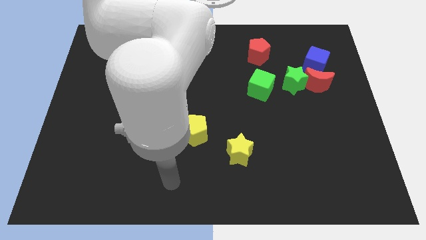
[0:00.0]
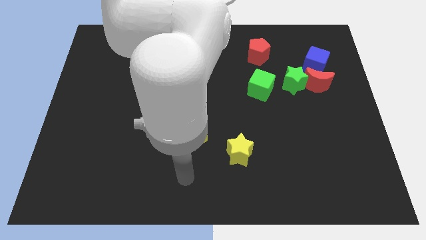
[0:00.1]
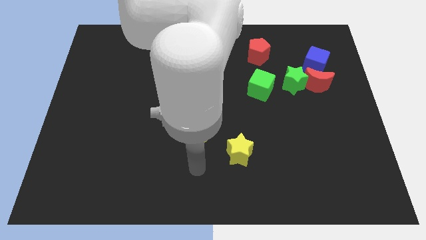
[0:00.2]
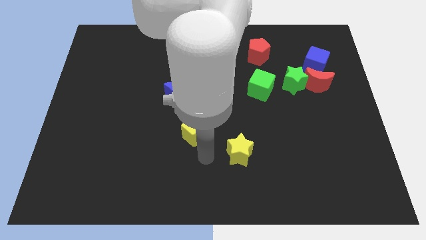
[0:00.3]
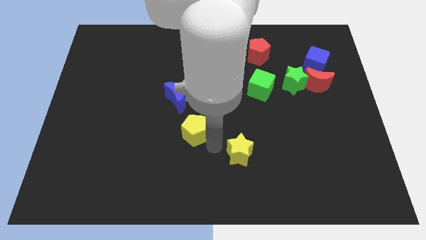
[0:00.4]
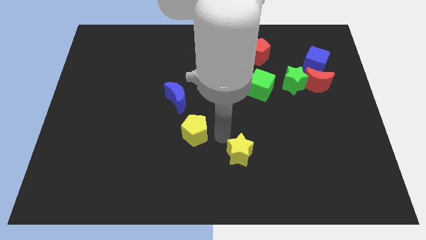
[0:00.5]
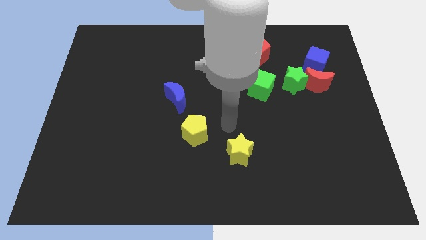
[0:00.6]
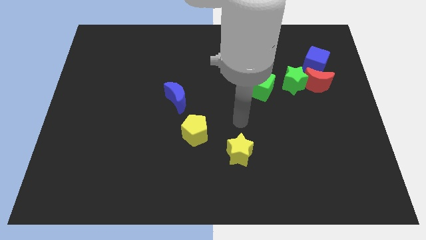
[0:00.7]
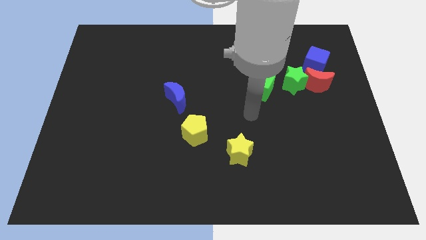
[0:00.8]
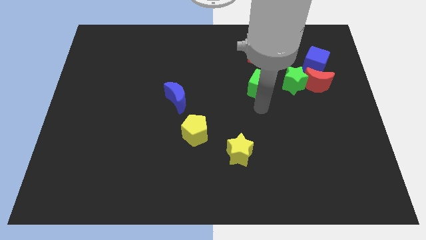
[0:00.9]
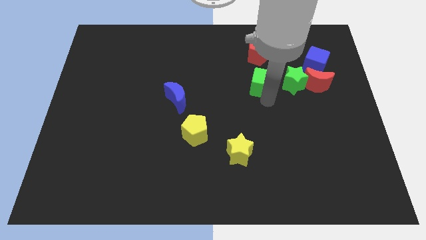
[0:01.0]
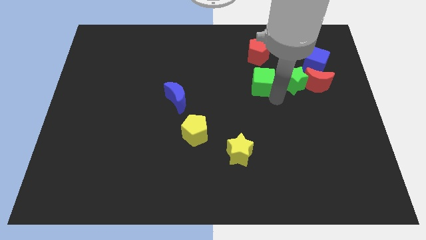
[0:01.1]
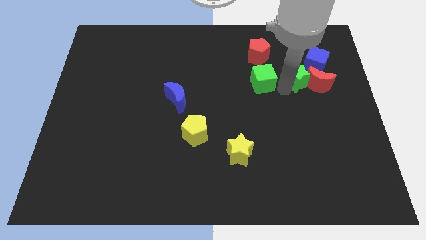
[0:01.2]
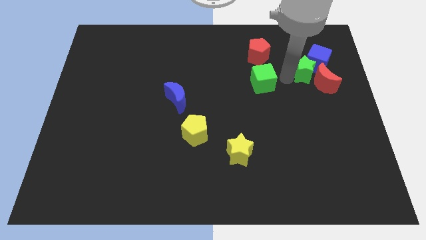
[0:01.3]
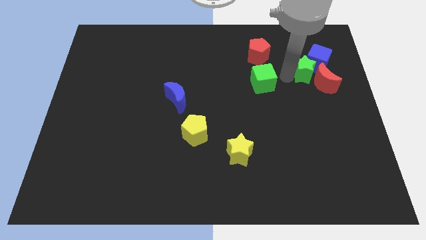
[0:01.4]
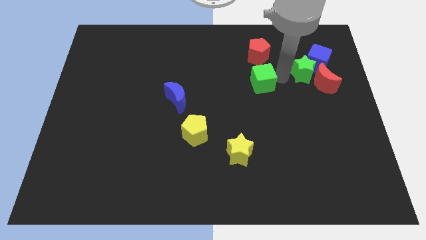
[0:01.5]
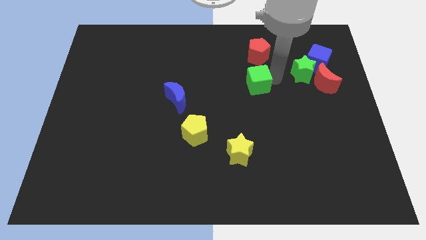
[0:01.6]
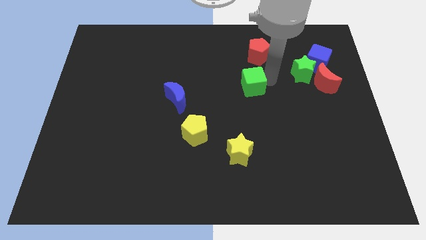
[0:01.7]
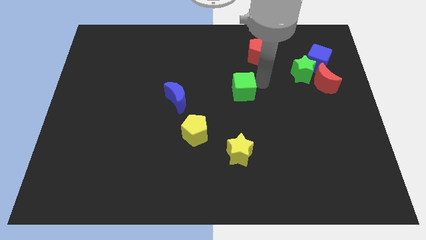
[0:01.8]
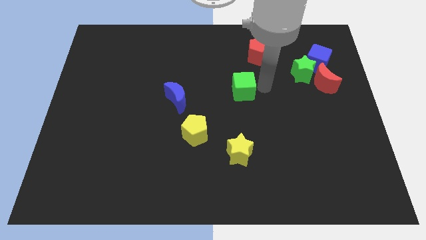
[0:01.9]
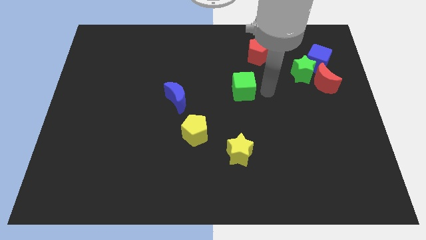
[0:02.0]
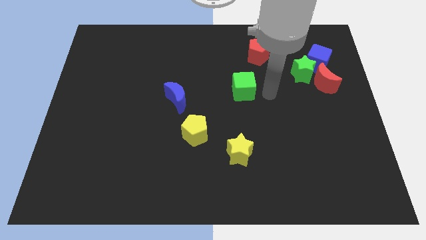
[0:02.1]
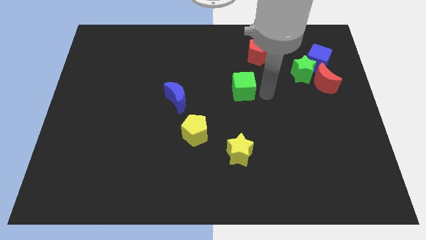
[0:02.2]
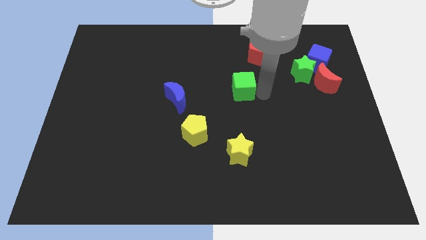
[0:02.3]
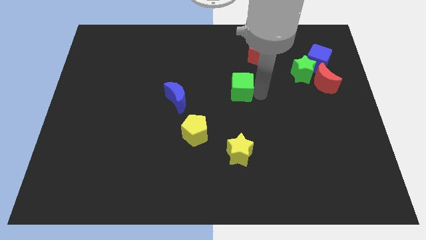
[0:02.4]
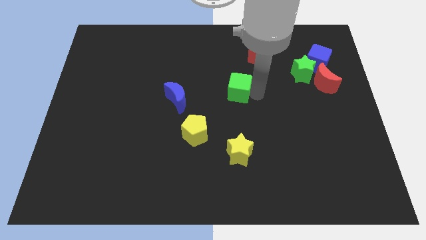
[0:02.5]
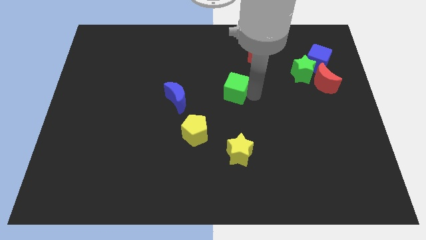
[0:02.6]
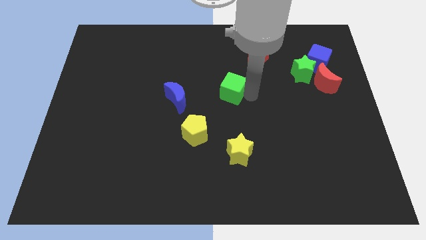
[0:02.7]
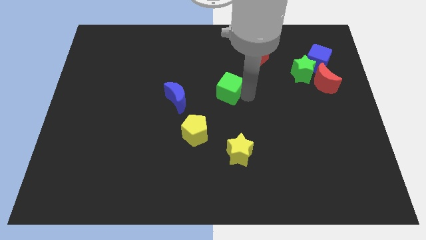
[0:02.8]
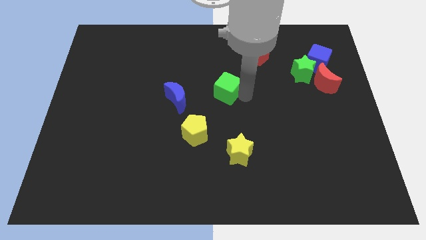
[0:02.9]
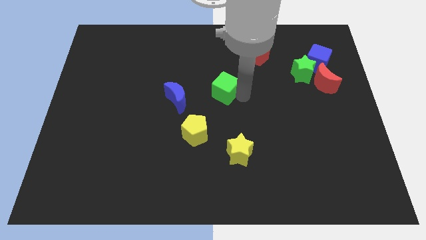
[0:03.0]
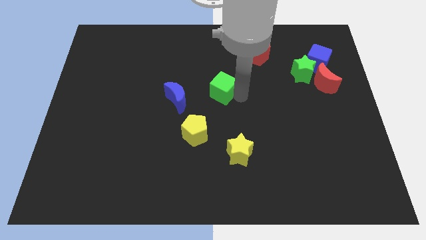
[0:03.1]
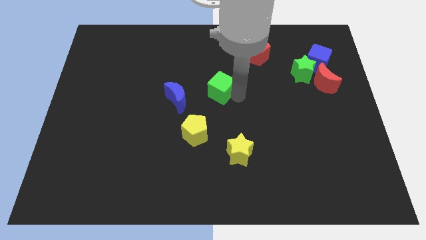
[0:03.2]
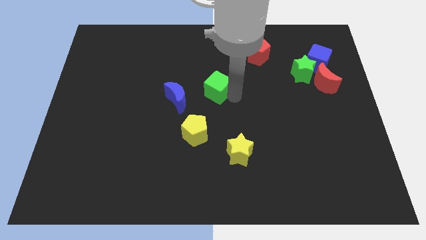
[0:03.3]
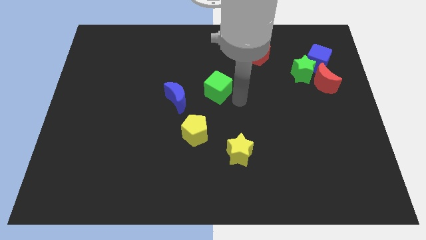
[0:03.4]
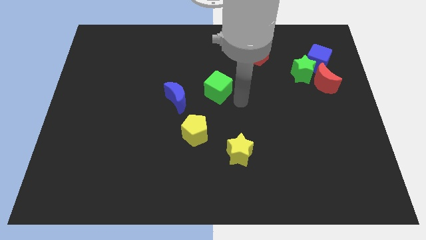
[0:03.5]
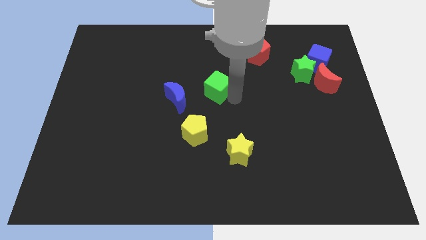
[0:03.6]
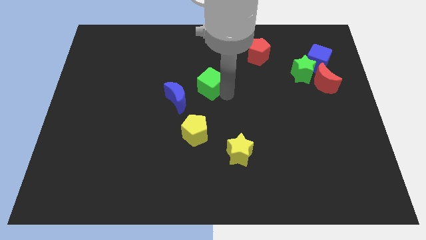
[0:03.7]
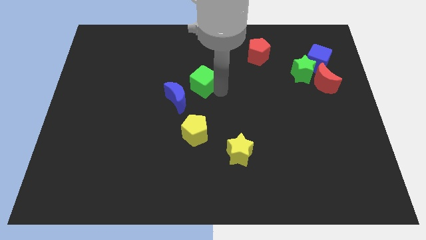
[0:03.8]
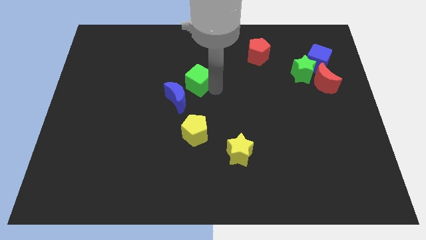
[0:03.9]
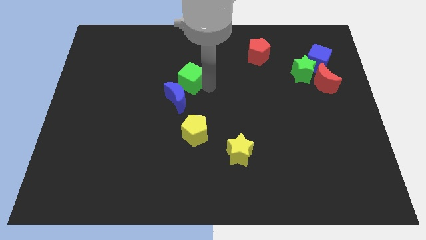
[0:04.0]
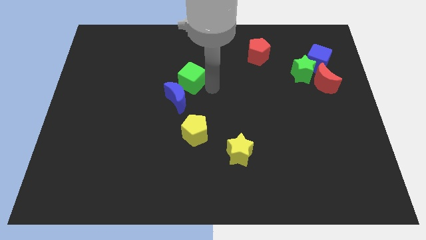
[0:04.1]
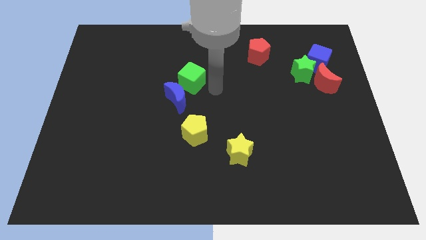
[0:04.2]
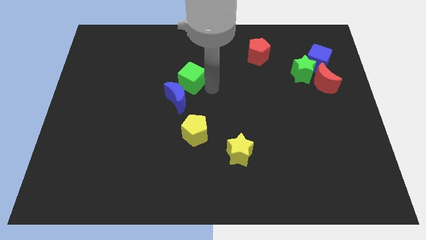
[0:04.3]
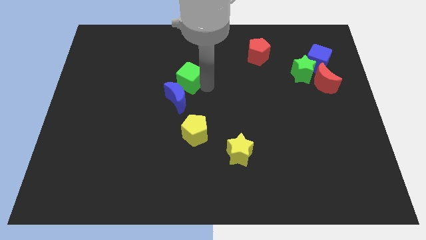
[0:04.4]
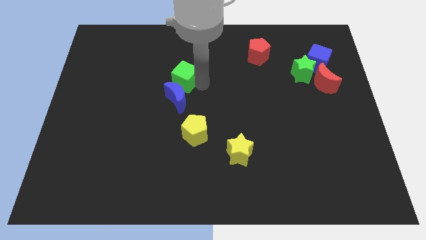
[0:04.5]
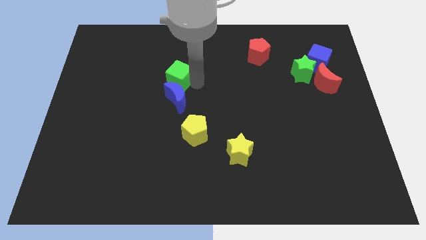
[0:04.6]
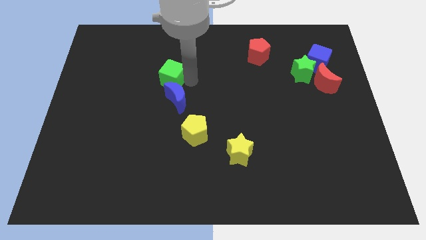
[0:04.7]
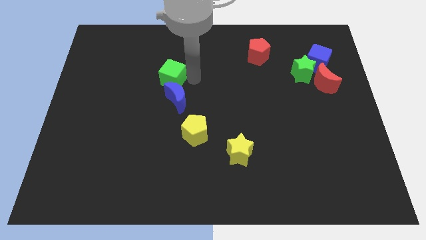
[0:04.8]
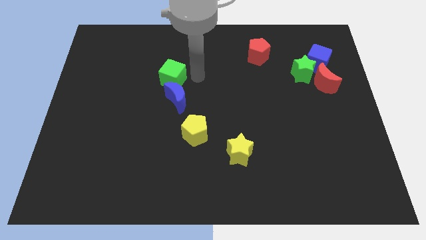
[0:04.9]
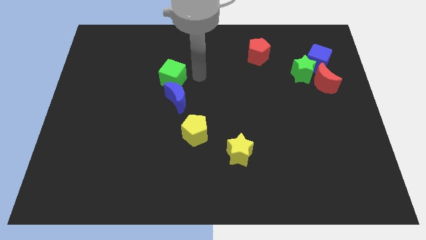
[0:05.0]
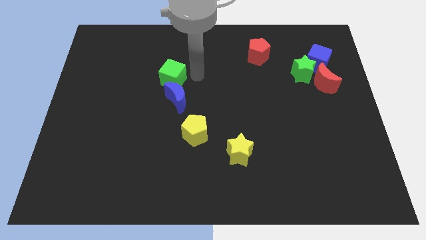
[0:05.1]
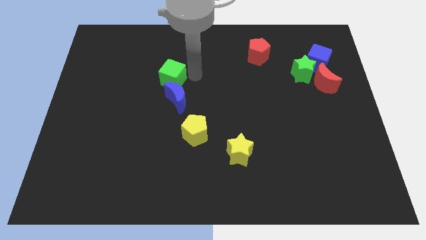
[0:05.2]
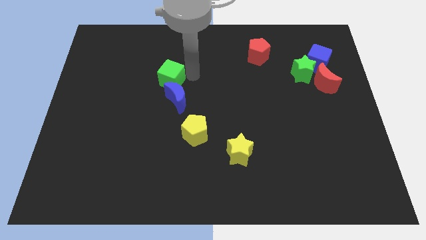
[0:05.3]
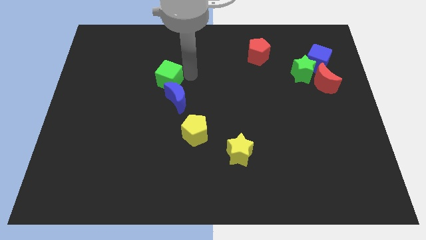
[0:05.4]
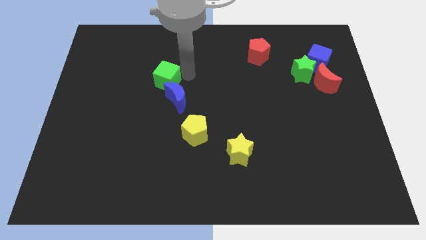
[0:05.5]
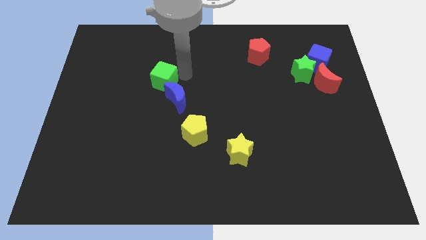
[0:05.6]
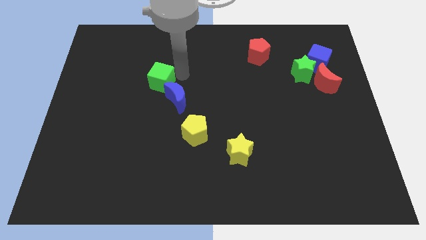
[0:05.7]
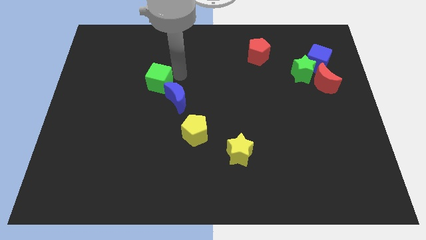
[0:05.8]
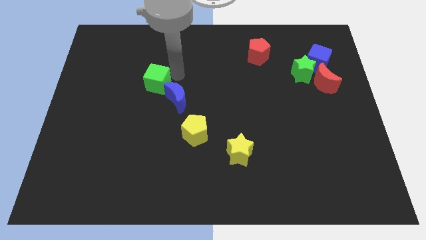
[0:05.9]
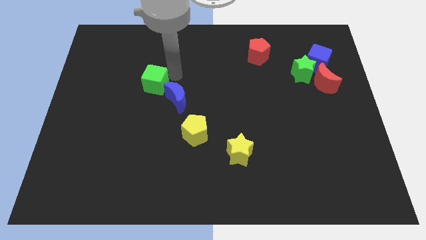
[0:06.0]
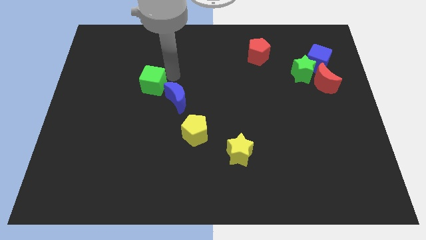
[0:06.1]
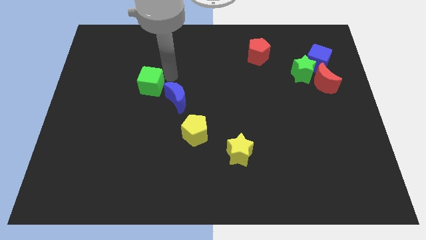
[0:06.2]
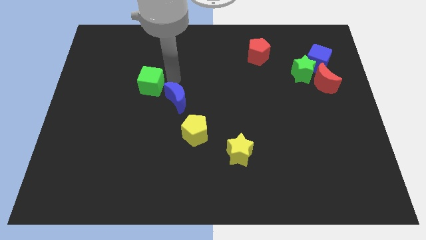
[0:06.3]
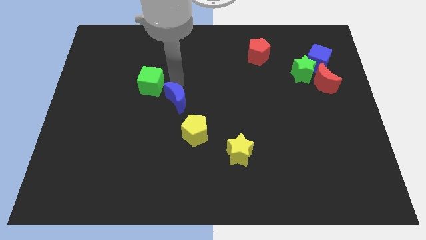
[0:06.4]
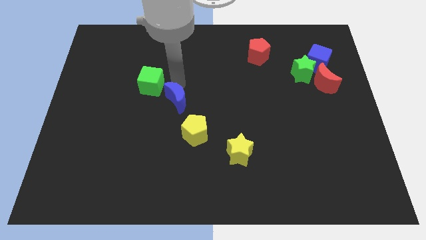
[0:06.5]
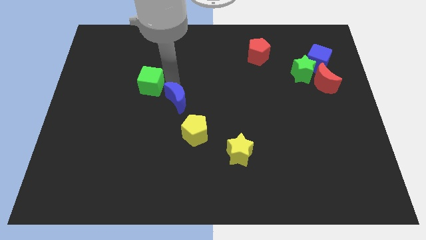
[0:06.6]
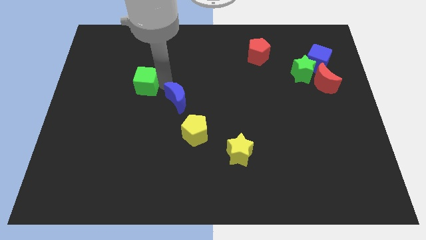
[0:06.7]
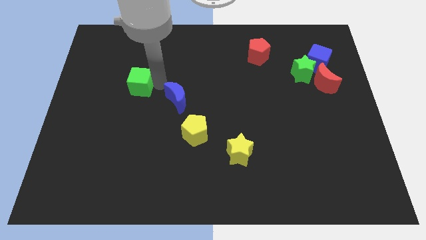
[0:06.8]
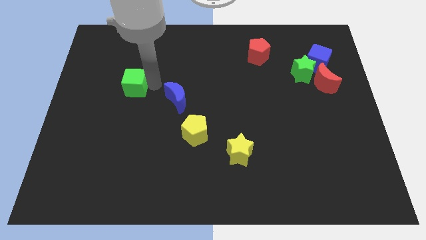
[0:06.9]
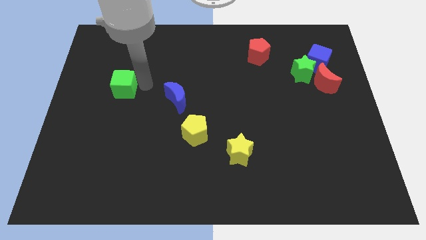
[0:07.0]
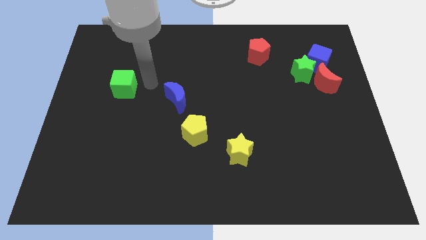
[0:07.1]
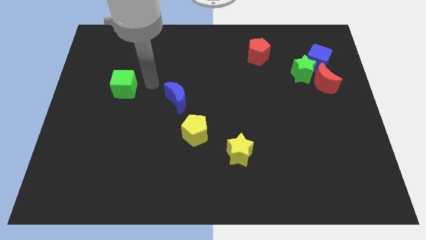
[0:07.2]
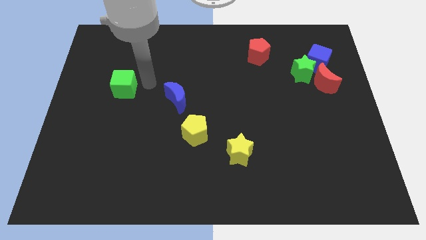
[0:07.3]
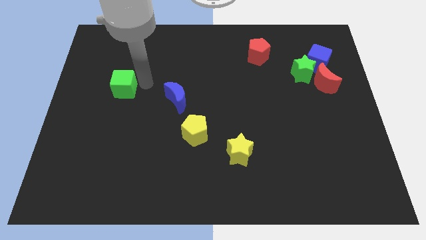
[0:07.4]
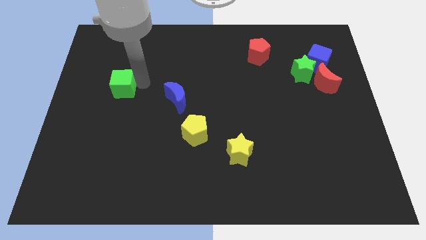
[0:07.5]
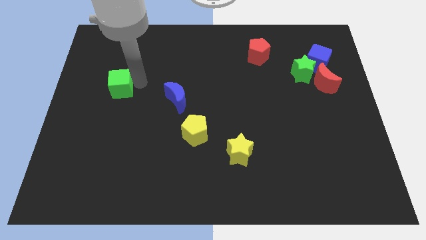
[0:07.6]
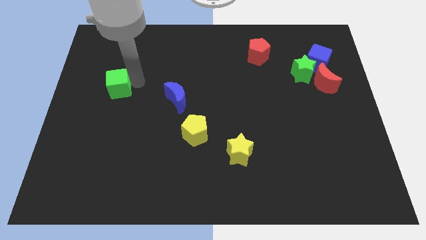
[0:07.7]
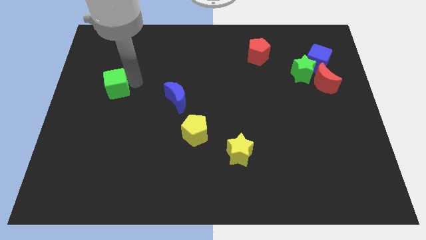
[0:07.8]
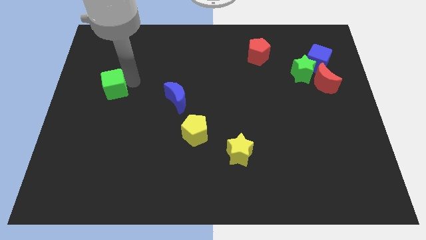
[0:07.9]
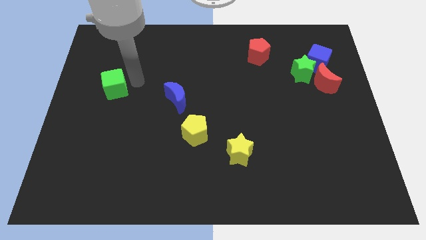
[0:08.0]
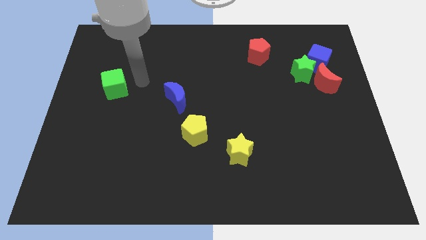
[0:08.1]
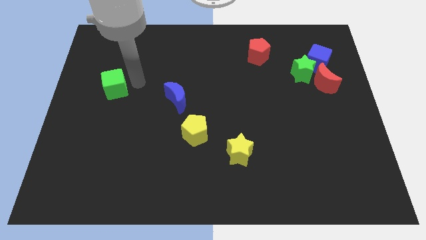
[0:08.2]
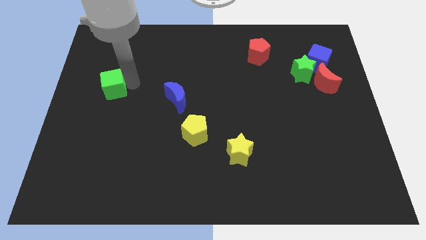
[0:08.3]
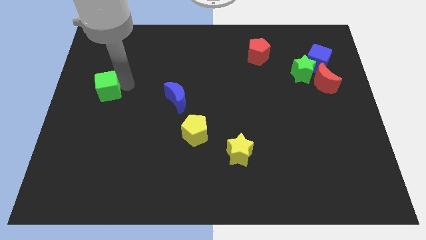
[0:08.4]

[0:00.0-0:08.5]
slide the green cube to the center left
